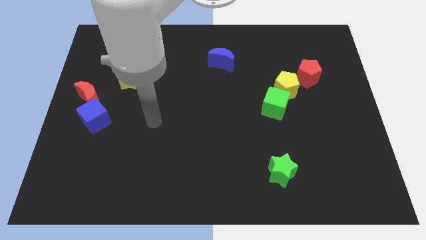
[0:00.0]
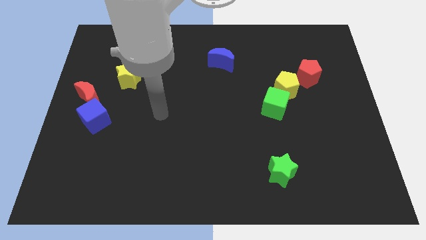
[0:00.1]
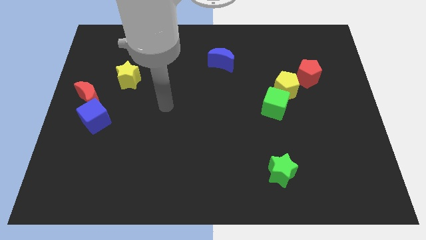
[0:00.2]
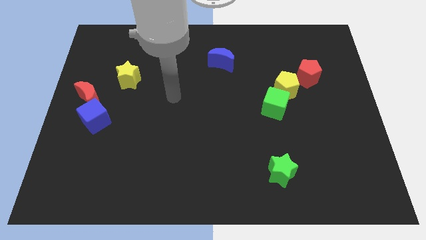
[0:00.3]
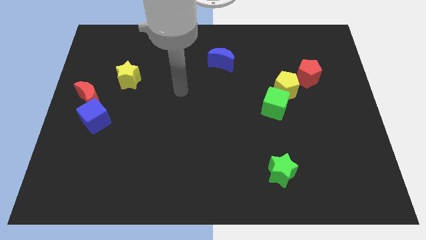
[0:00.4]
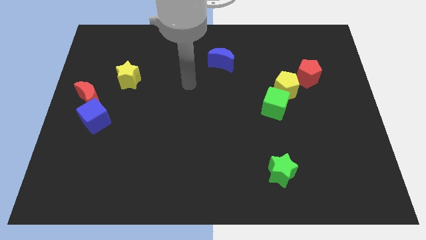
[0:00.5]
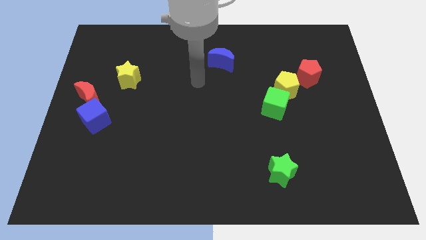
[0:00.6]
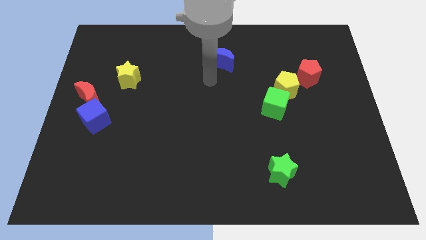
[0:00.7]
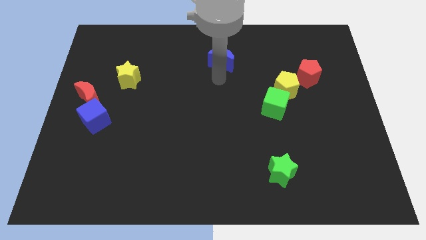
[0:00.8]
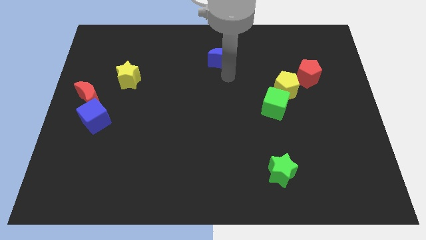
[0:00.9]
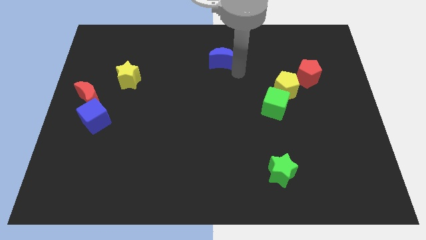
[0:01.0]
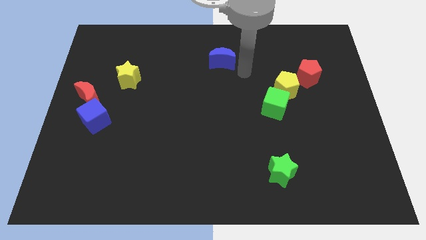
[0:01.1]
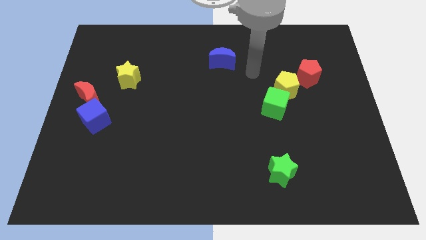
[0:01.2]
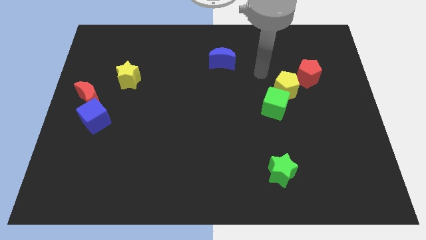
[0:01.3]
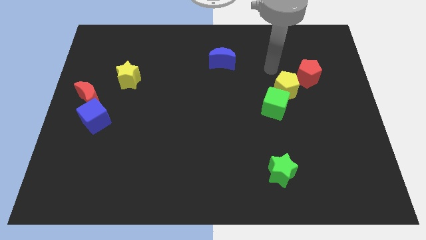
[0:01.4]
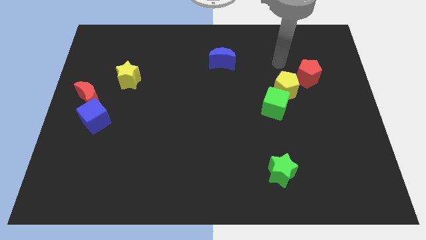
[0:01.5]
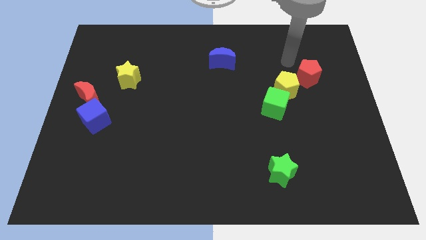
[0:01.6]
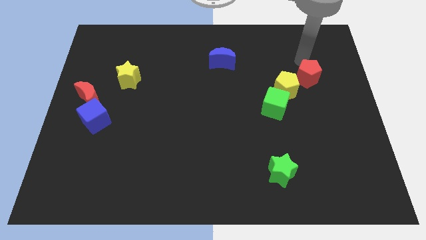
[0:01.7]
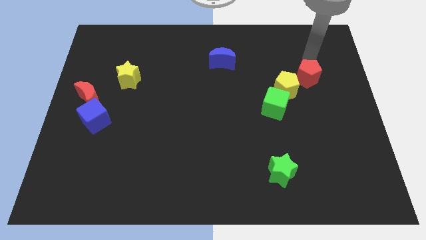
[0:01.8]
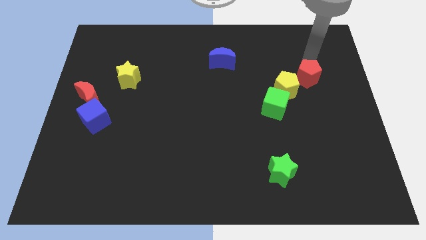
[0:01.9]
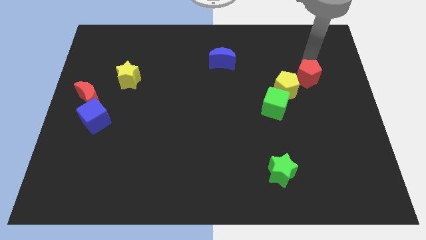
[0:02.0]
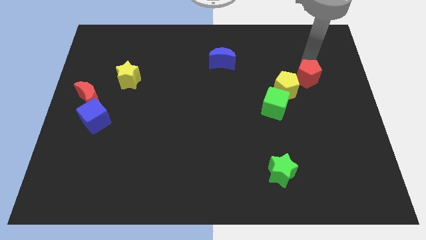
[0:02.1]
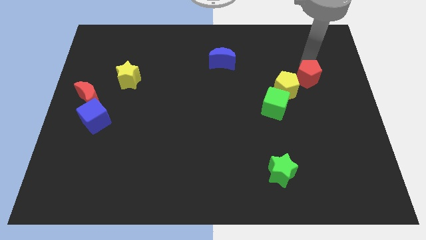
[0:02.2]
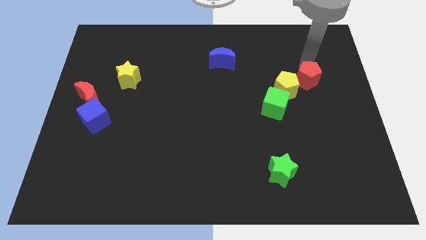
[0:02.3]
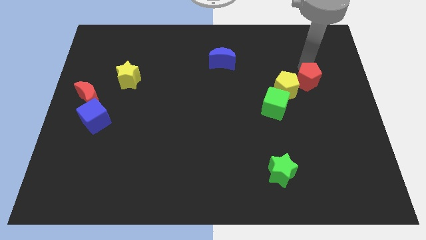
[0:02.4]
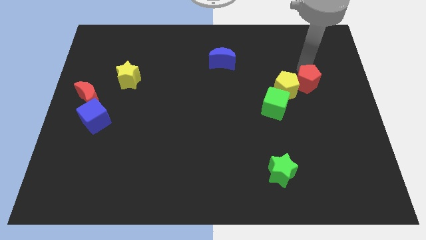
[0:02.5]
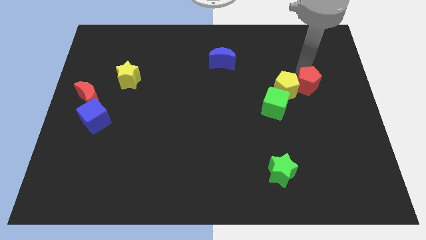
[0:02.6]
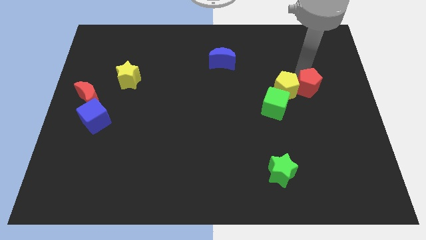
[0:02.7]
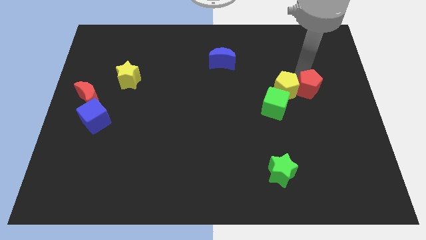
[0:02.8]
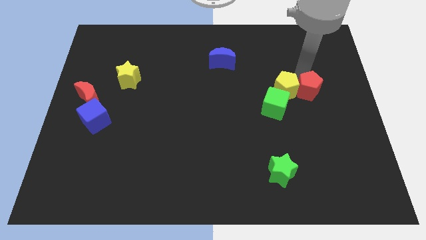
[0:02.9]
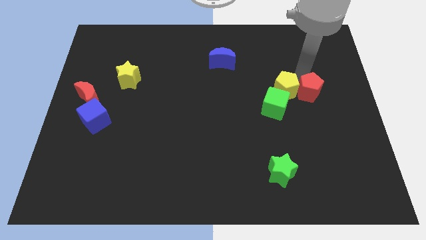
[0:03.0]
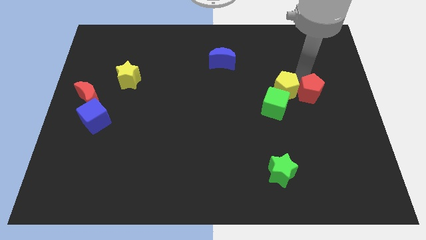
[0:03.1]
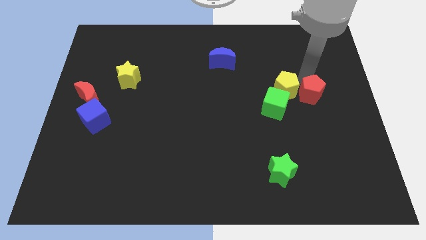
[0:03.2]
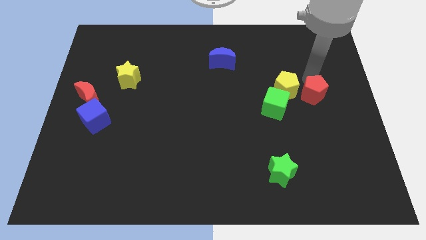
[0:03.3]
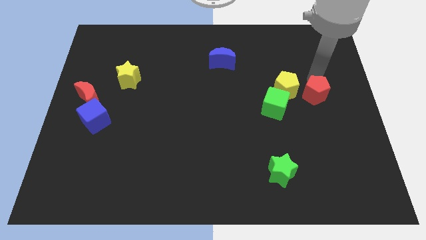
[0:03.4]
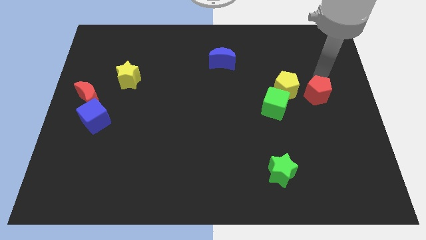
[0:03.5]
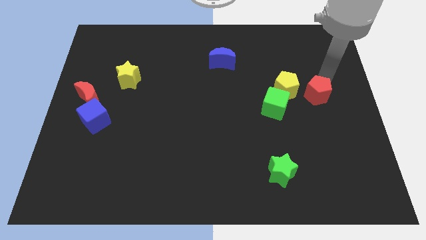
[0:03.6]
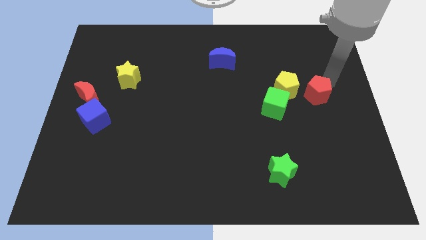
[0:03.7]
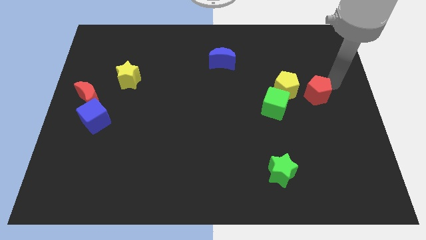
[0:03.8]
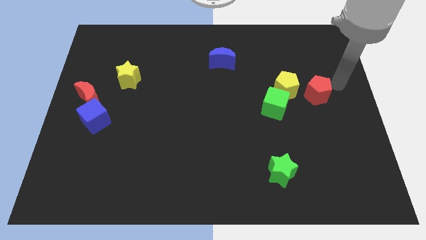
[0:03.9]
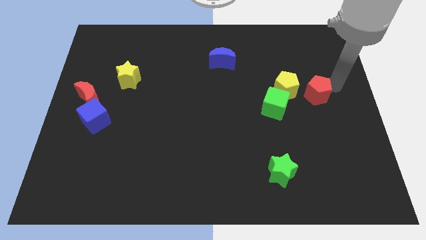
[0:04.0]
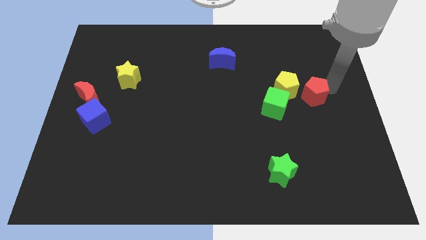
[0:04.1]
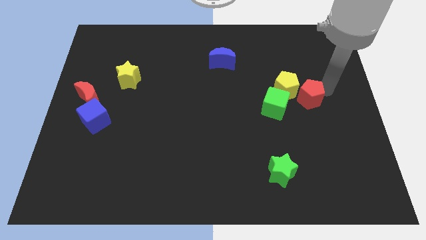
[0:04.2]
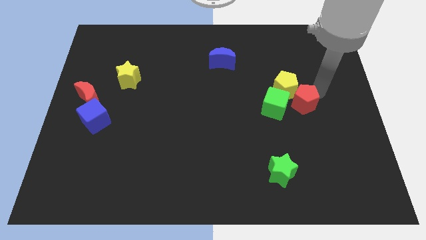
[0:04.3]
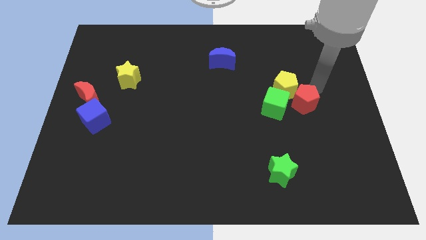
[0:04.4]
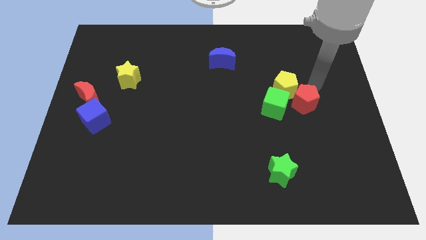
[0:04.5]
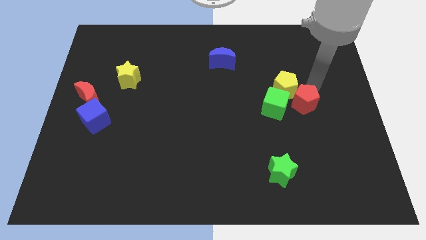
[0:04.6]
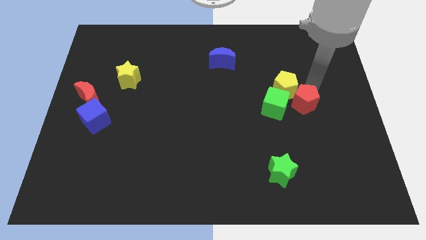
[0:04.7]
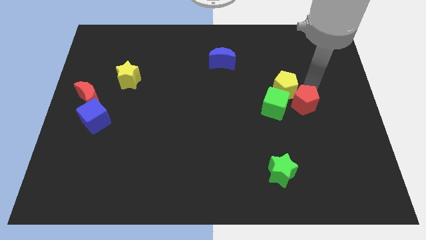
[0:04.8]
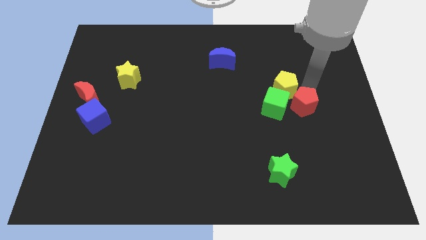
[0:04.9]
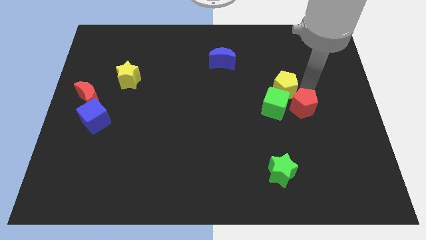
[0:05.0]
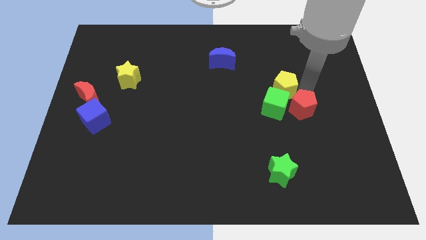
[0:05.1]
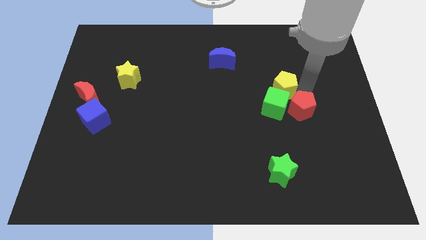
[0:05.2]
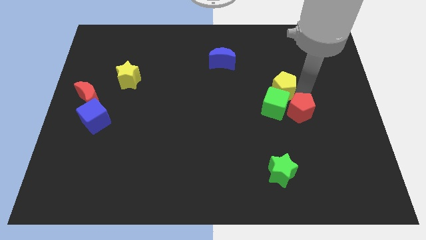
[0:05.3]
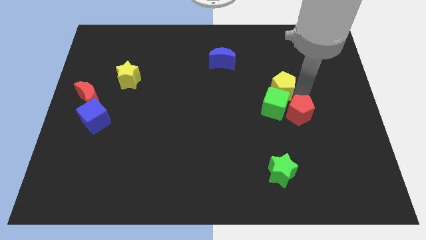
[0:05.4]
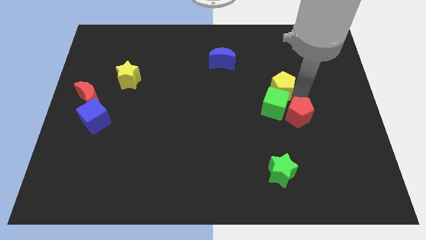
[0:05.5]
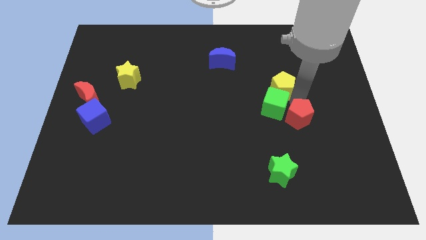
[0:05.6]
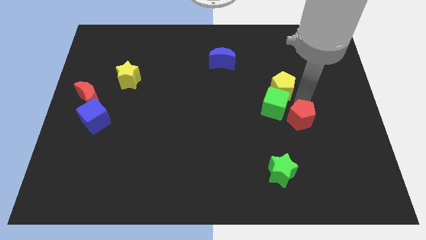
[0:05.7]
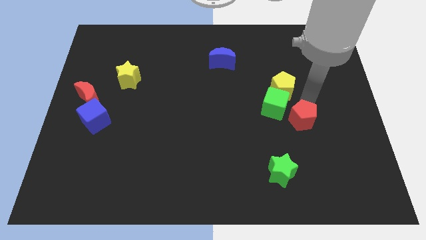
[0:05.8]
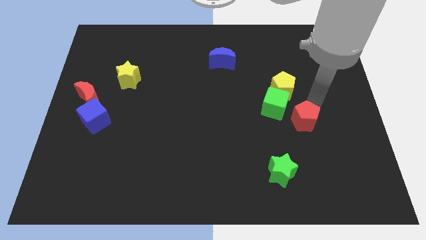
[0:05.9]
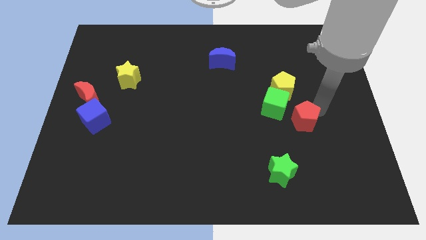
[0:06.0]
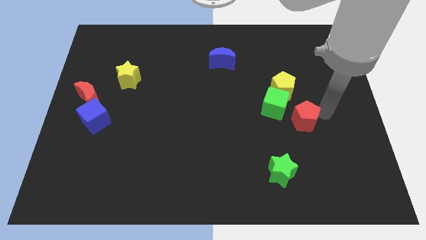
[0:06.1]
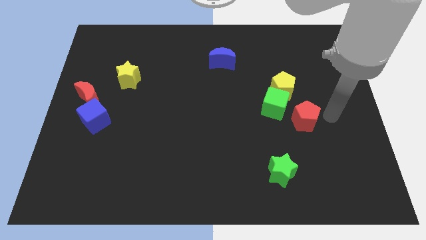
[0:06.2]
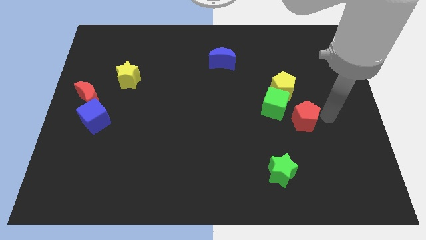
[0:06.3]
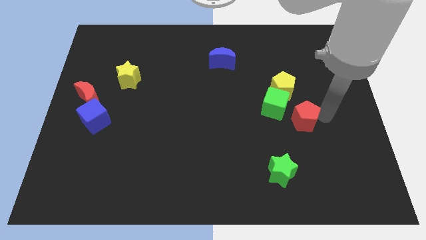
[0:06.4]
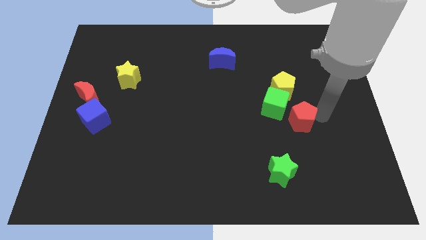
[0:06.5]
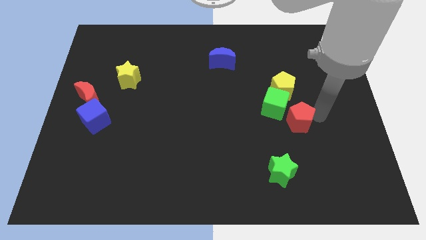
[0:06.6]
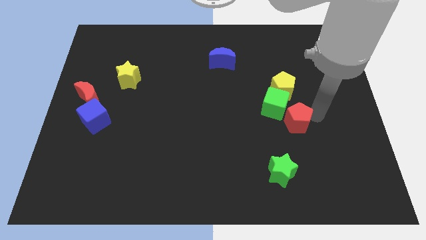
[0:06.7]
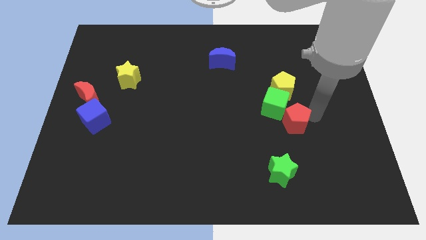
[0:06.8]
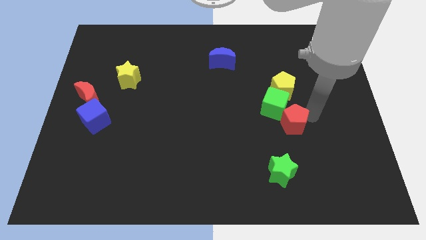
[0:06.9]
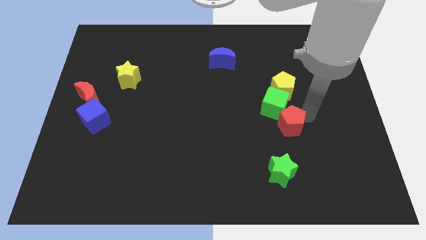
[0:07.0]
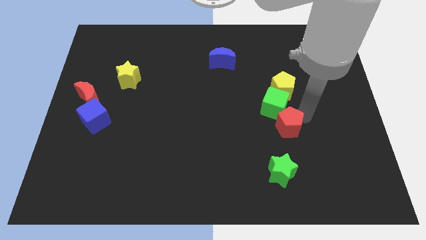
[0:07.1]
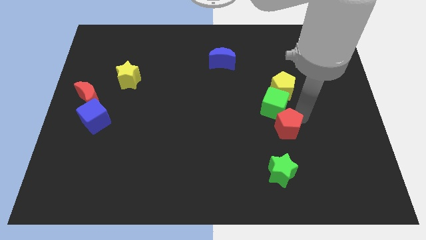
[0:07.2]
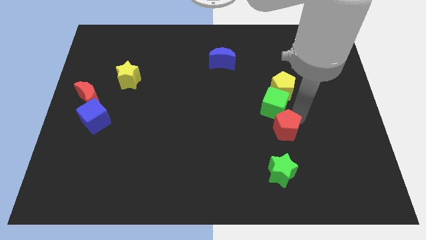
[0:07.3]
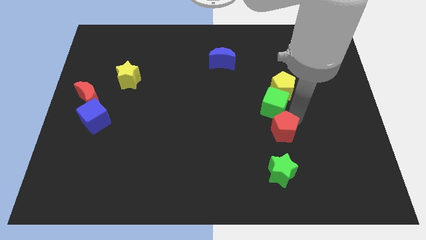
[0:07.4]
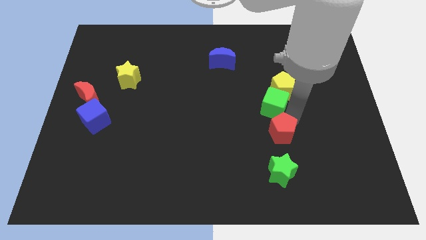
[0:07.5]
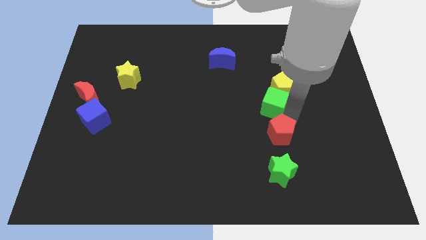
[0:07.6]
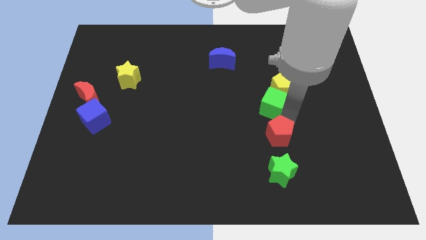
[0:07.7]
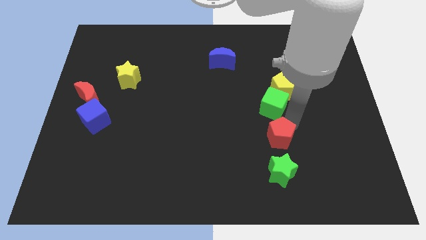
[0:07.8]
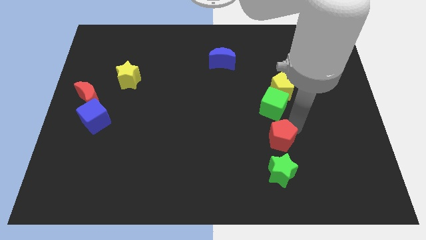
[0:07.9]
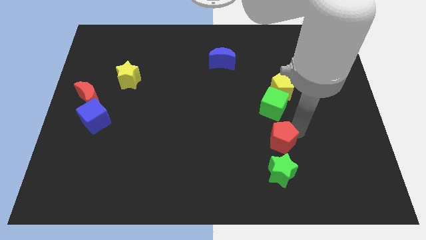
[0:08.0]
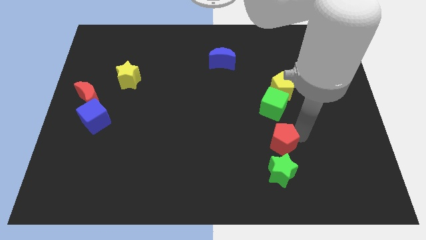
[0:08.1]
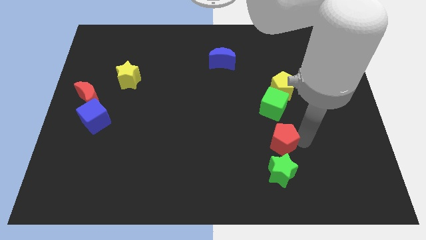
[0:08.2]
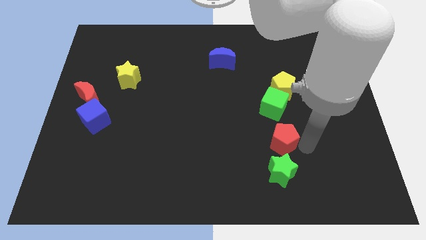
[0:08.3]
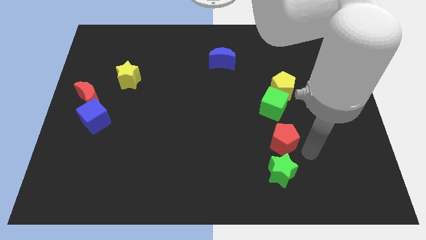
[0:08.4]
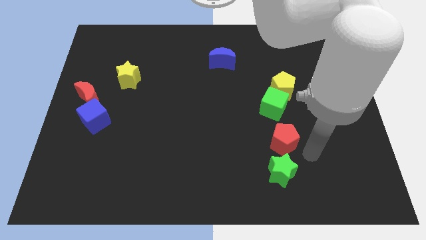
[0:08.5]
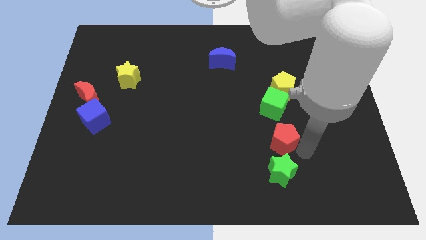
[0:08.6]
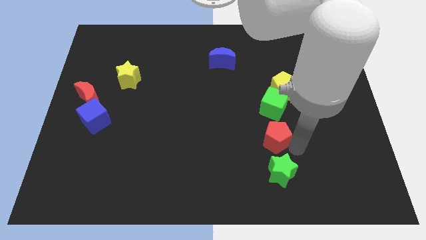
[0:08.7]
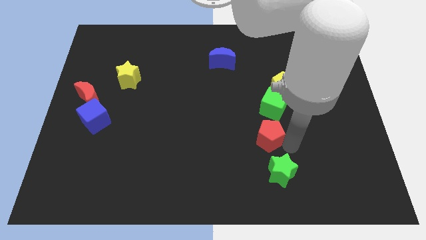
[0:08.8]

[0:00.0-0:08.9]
move the red pentagon down and then left
